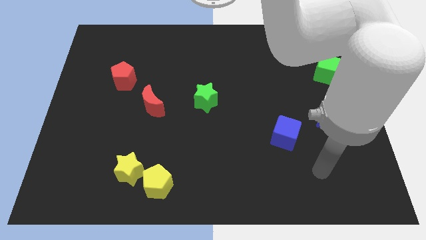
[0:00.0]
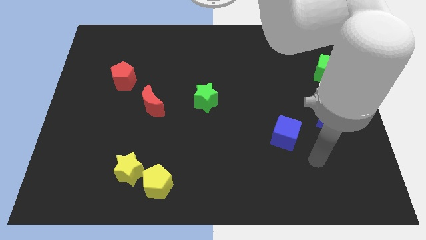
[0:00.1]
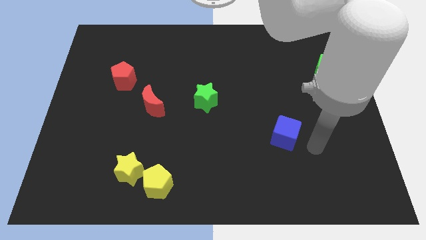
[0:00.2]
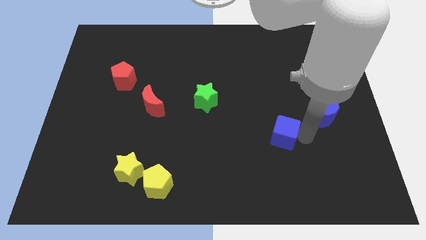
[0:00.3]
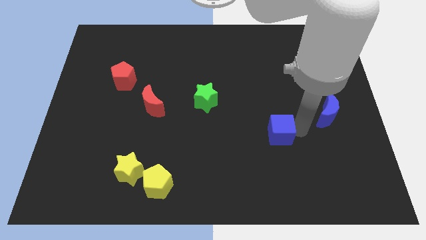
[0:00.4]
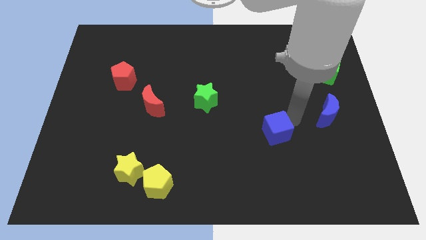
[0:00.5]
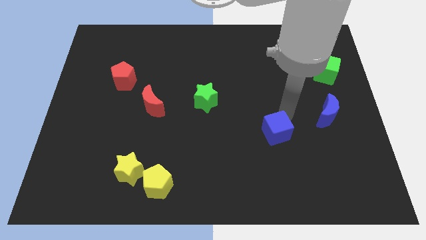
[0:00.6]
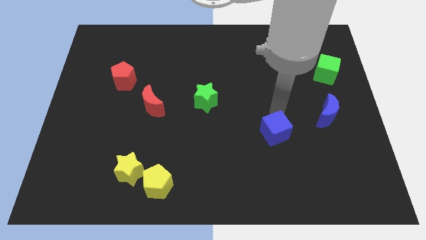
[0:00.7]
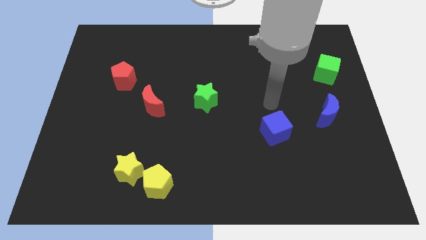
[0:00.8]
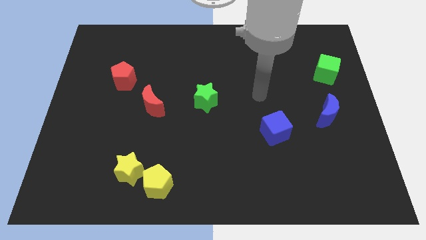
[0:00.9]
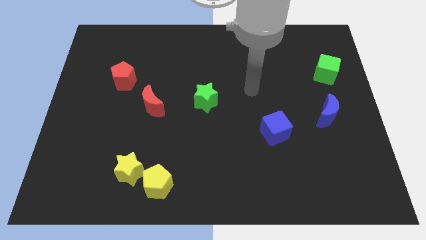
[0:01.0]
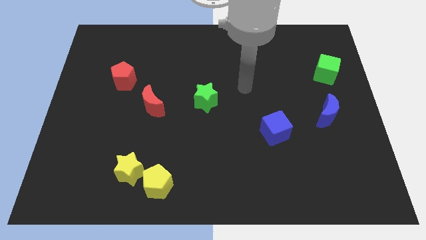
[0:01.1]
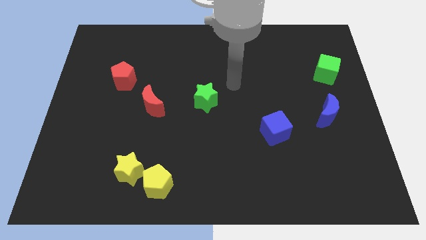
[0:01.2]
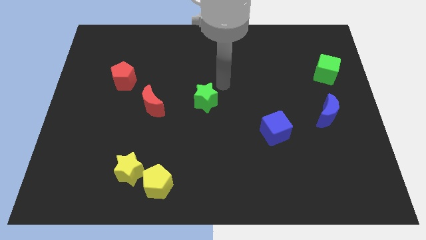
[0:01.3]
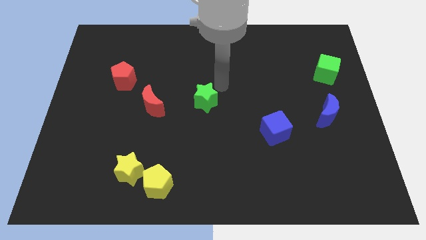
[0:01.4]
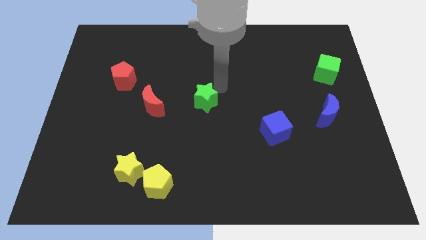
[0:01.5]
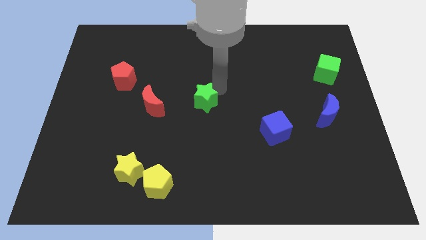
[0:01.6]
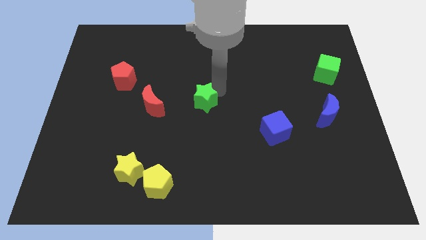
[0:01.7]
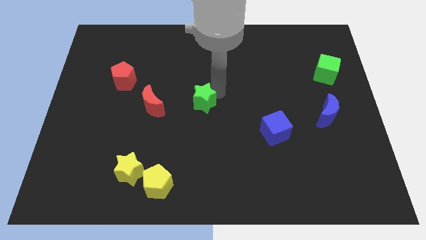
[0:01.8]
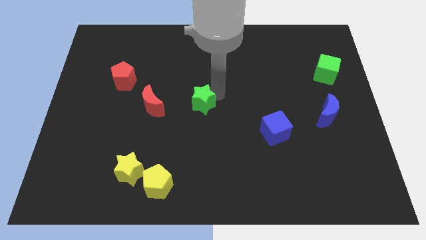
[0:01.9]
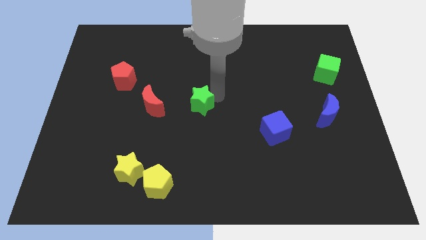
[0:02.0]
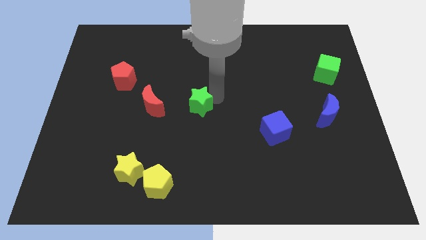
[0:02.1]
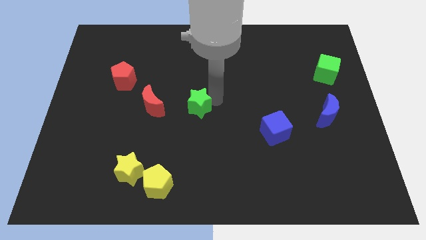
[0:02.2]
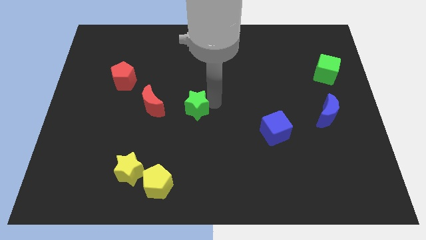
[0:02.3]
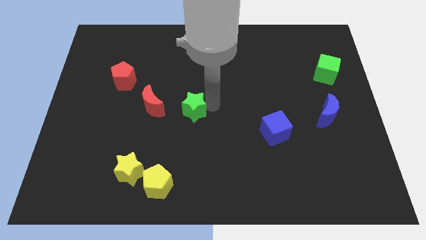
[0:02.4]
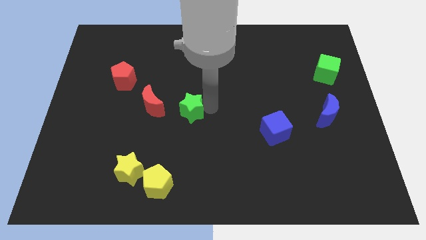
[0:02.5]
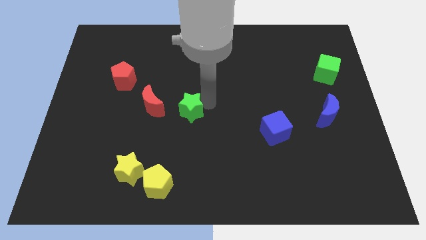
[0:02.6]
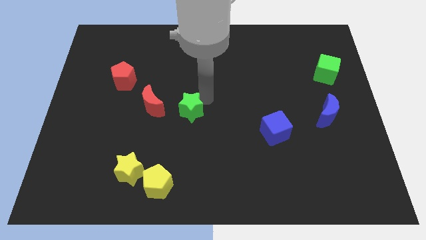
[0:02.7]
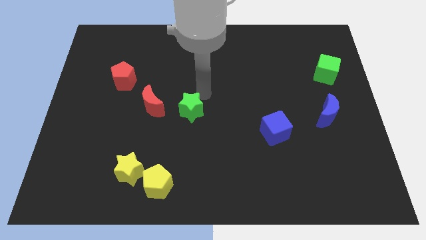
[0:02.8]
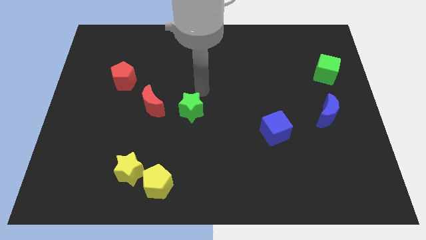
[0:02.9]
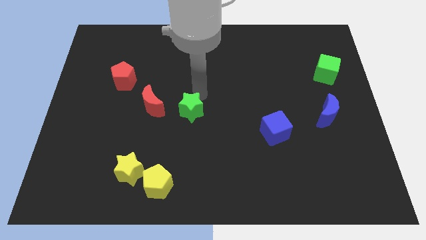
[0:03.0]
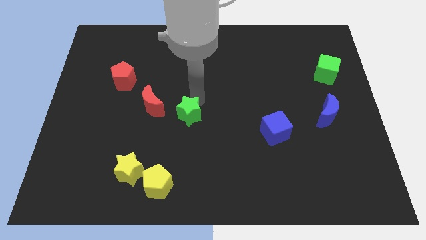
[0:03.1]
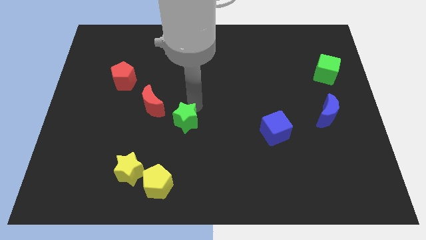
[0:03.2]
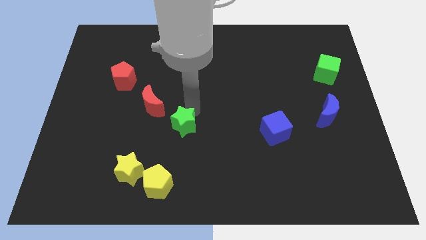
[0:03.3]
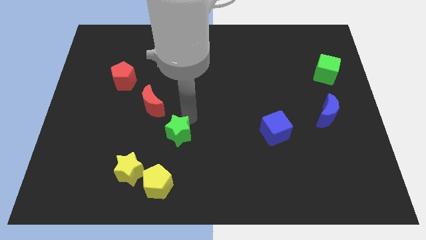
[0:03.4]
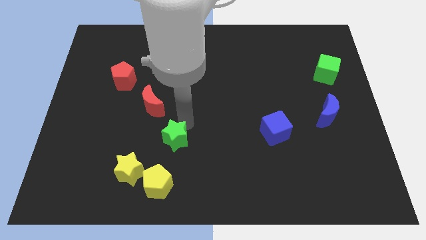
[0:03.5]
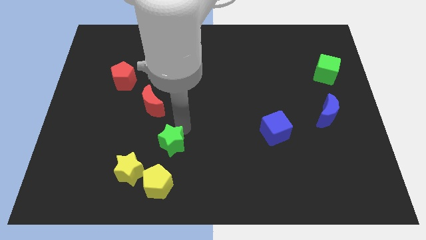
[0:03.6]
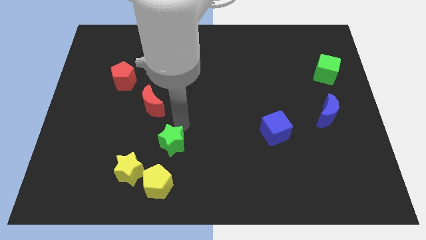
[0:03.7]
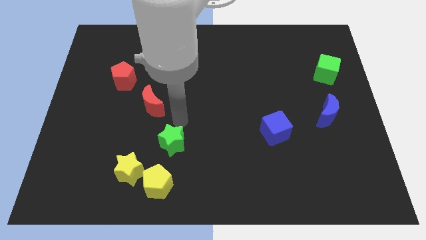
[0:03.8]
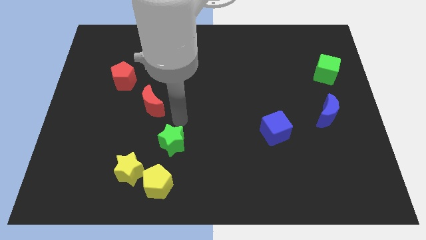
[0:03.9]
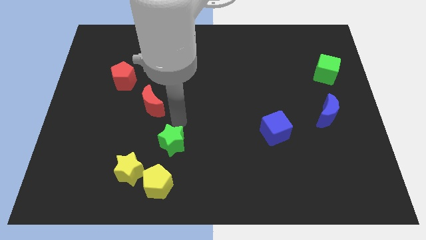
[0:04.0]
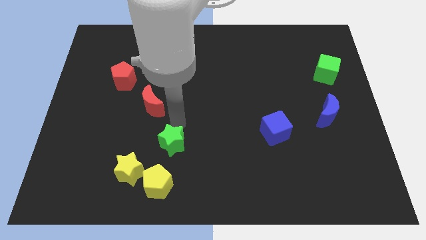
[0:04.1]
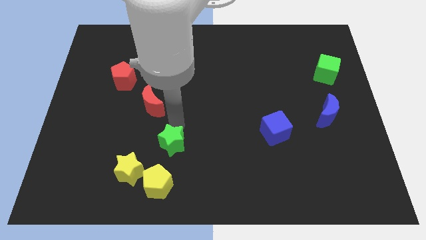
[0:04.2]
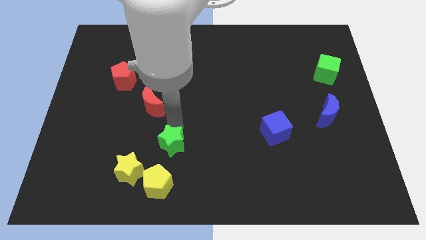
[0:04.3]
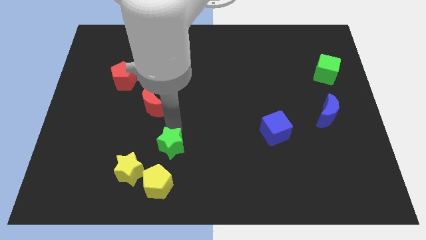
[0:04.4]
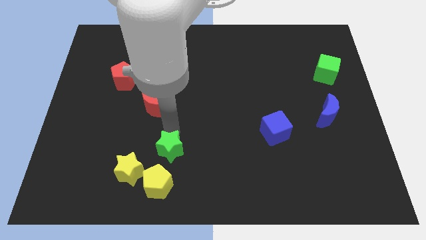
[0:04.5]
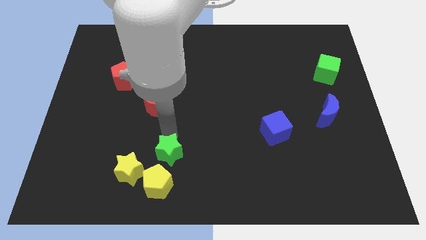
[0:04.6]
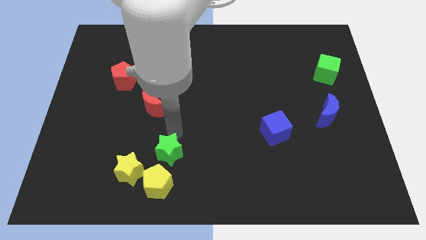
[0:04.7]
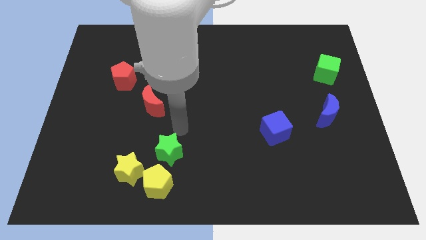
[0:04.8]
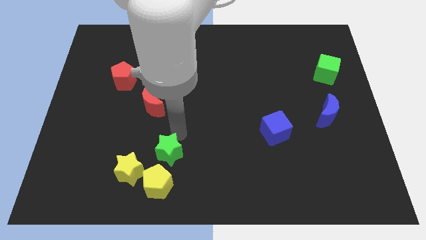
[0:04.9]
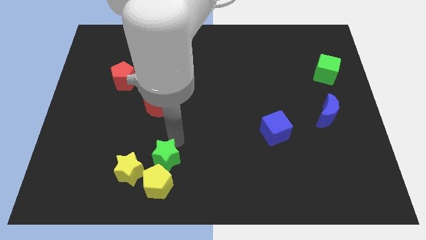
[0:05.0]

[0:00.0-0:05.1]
slide the green star to the yellow pentagon

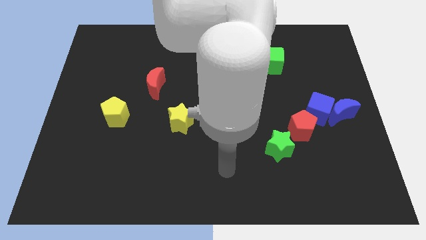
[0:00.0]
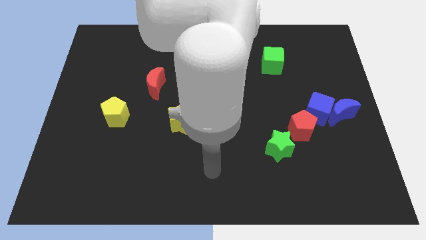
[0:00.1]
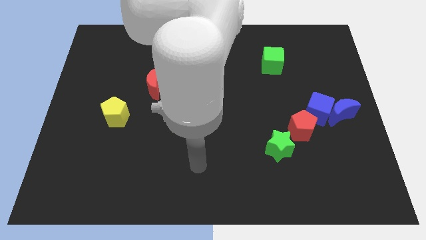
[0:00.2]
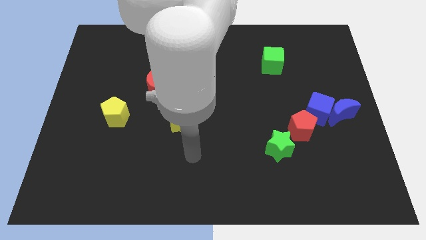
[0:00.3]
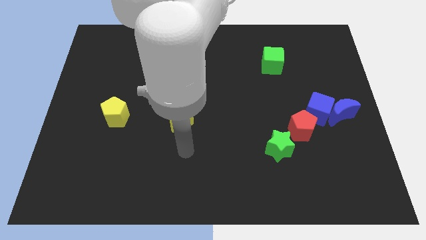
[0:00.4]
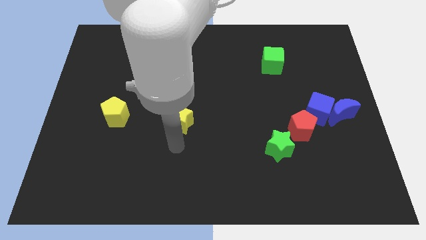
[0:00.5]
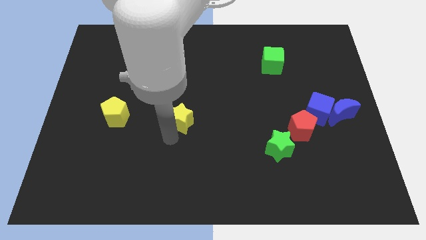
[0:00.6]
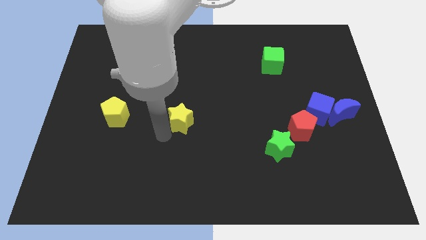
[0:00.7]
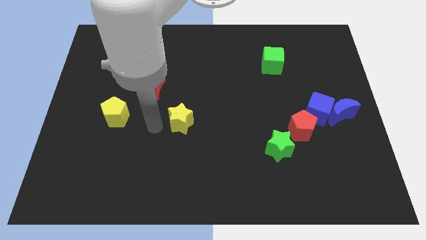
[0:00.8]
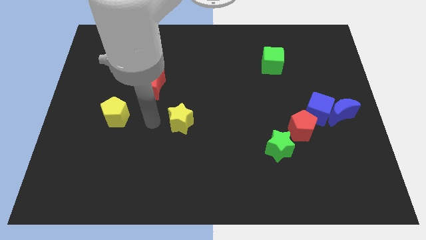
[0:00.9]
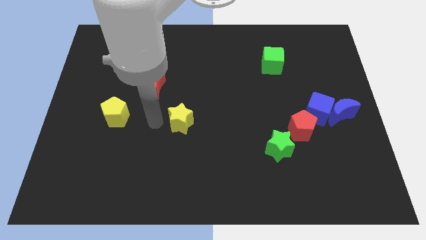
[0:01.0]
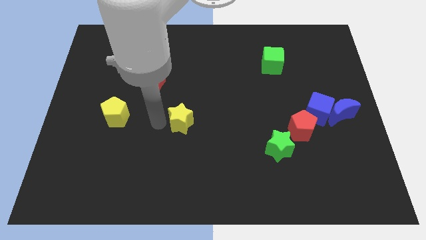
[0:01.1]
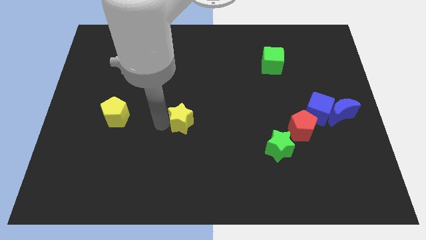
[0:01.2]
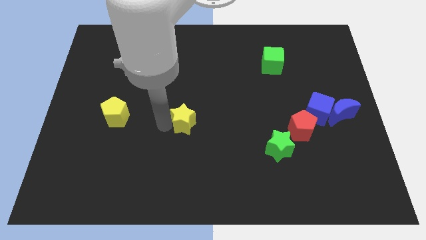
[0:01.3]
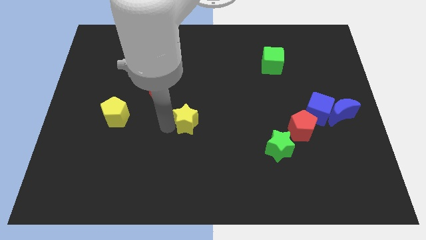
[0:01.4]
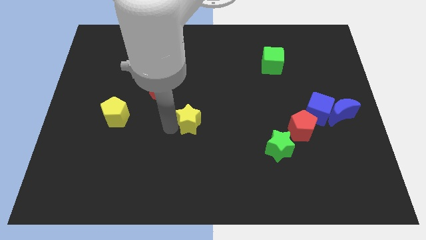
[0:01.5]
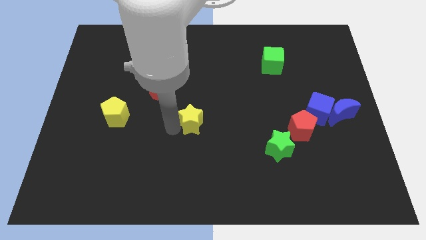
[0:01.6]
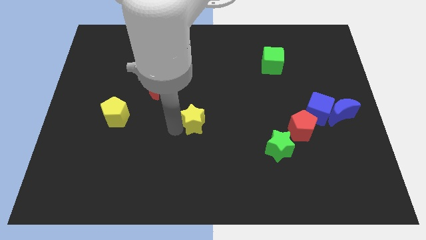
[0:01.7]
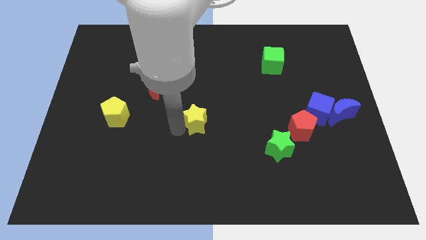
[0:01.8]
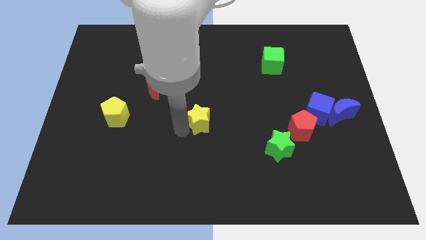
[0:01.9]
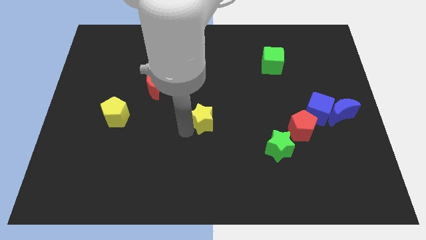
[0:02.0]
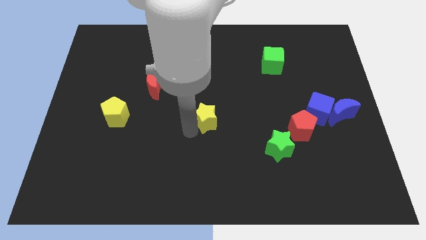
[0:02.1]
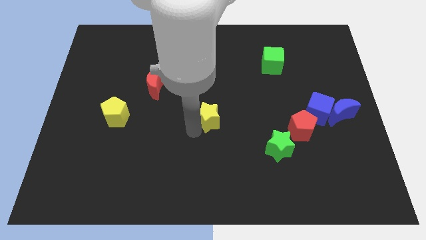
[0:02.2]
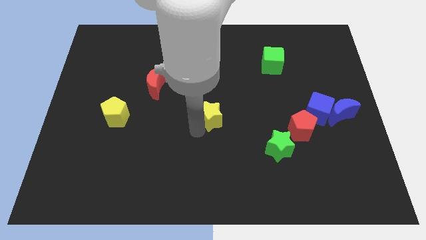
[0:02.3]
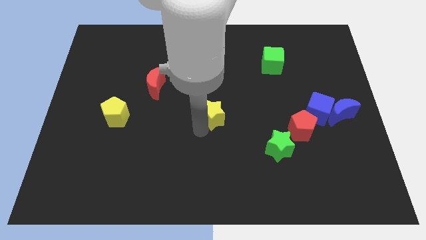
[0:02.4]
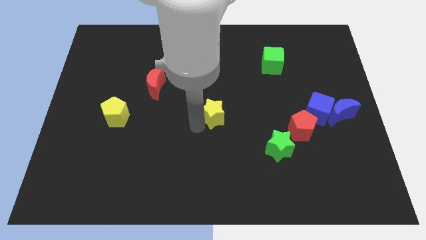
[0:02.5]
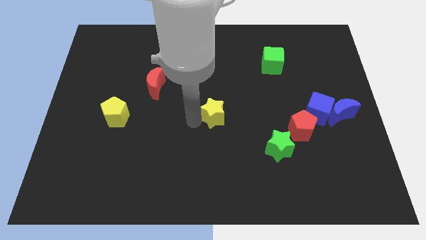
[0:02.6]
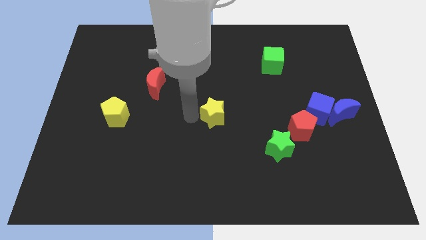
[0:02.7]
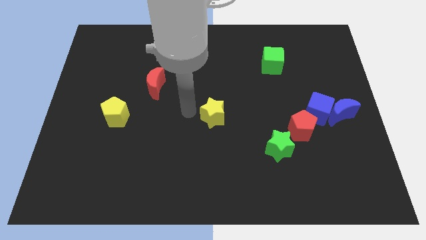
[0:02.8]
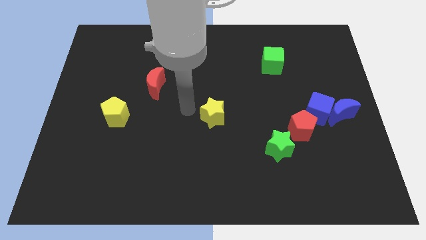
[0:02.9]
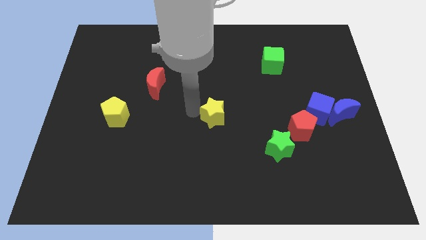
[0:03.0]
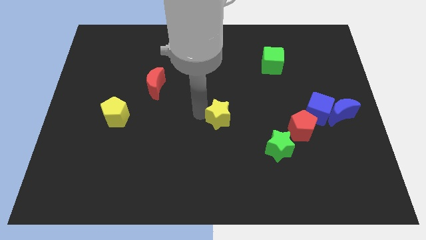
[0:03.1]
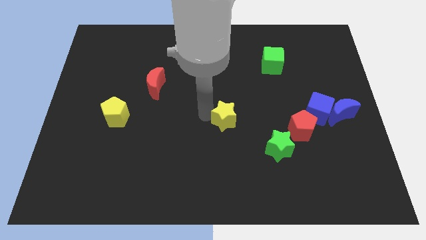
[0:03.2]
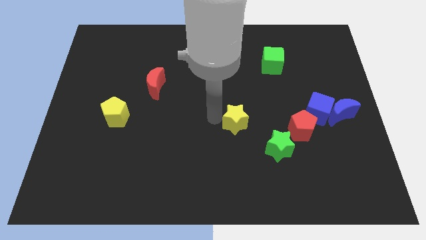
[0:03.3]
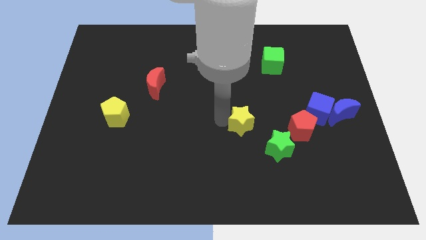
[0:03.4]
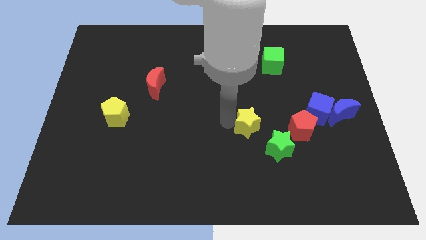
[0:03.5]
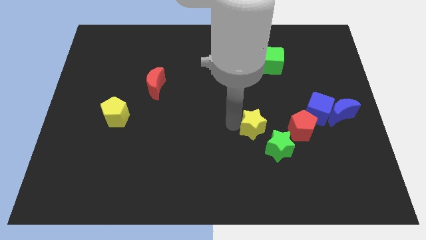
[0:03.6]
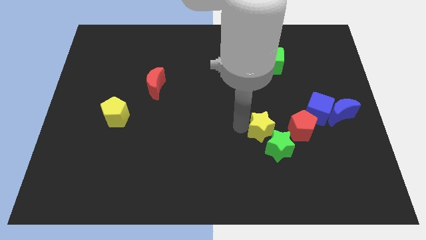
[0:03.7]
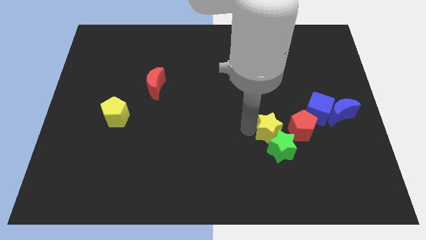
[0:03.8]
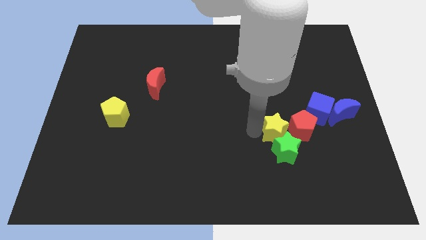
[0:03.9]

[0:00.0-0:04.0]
move the yellow star towards the red pentagon
